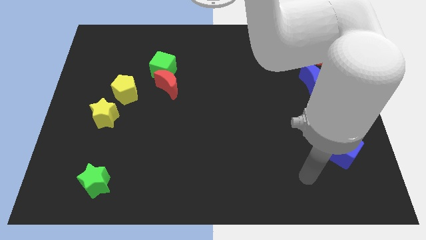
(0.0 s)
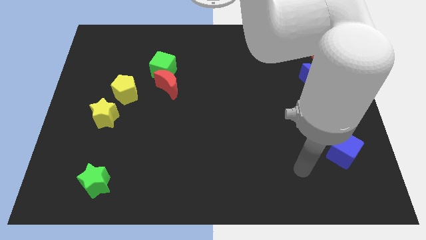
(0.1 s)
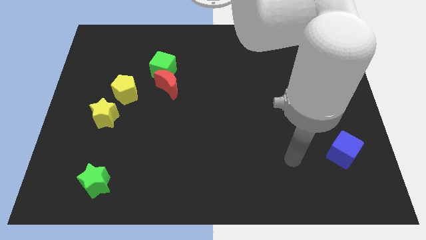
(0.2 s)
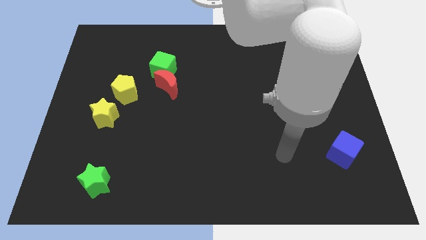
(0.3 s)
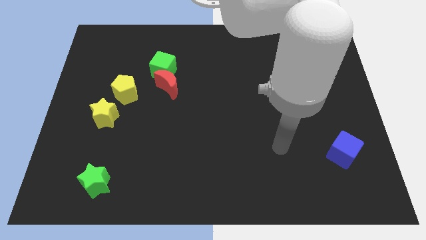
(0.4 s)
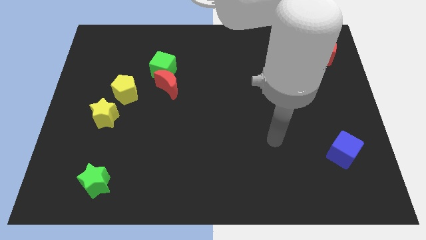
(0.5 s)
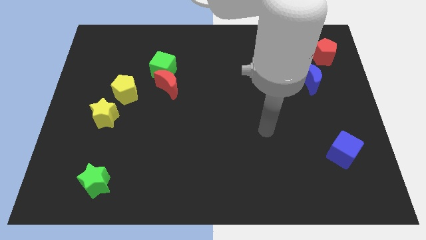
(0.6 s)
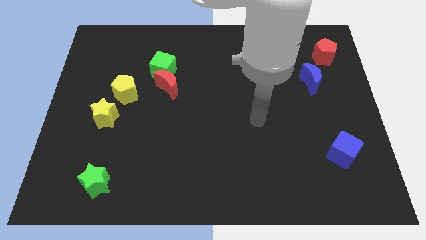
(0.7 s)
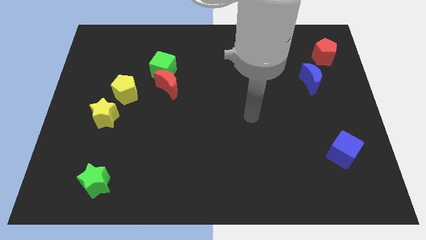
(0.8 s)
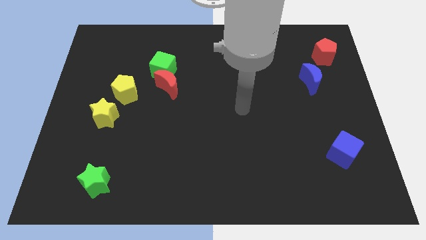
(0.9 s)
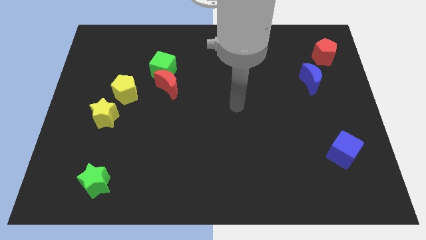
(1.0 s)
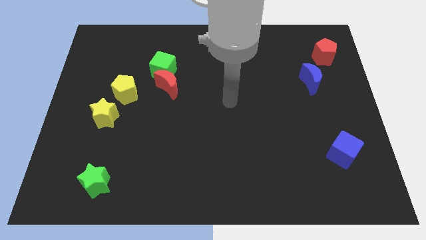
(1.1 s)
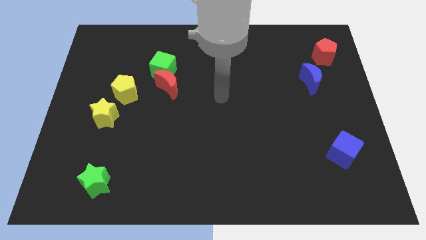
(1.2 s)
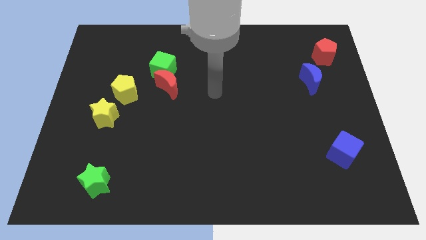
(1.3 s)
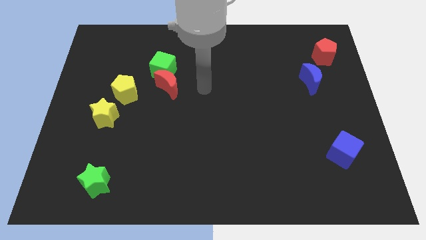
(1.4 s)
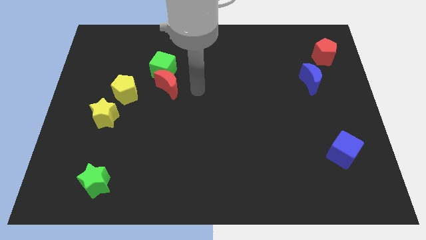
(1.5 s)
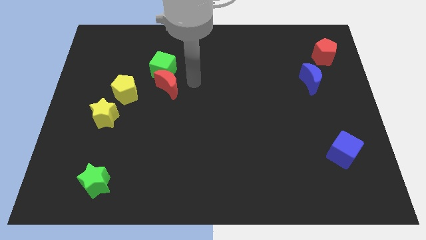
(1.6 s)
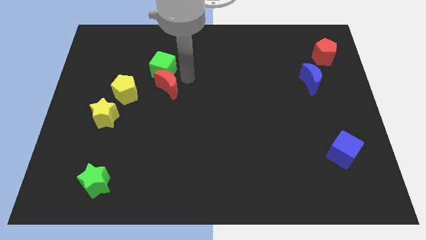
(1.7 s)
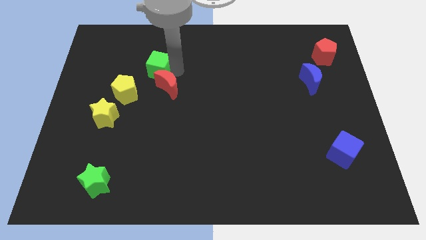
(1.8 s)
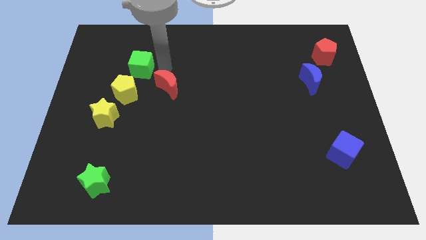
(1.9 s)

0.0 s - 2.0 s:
move the red moon away from the green cube

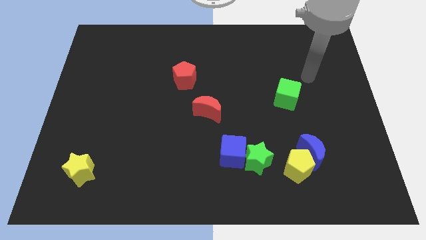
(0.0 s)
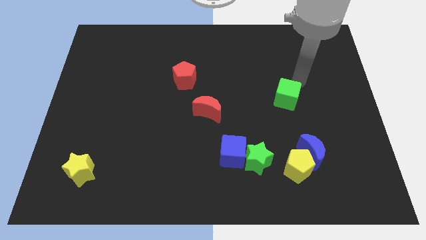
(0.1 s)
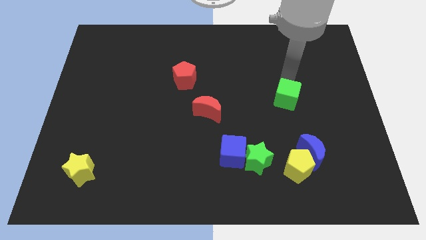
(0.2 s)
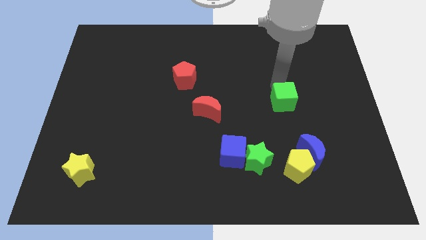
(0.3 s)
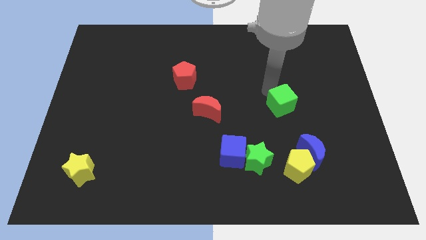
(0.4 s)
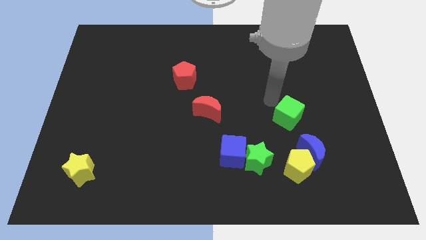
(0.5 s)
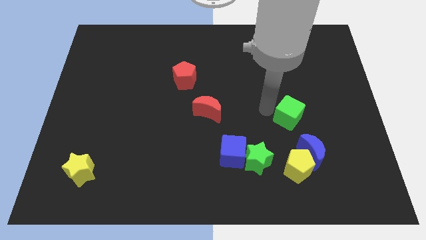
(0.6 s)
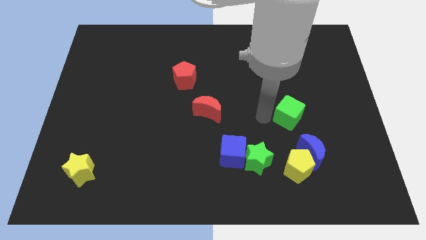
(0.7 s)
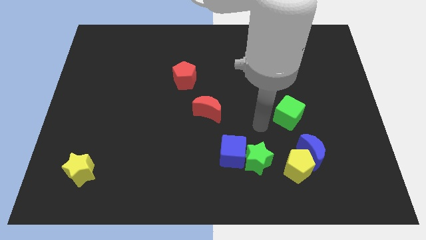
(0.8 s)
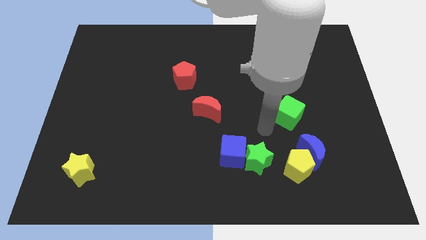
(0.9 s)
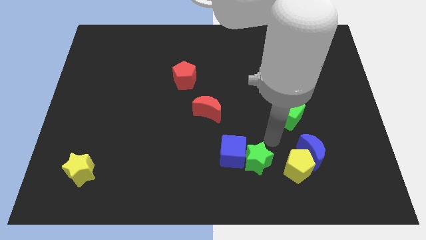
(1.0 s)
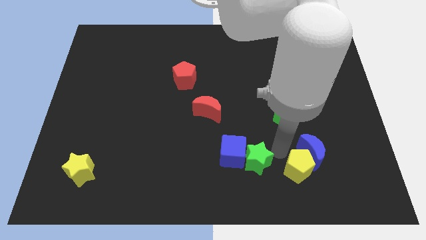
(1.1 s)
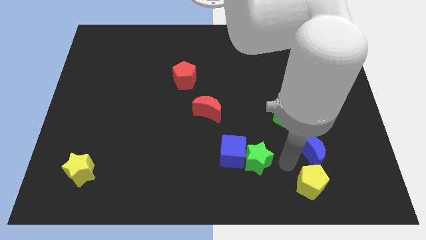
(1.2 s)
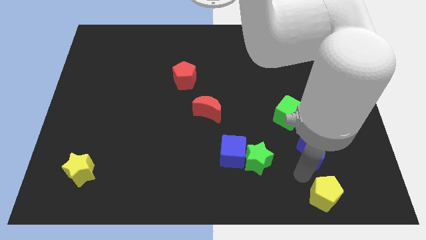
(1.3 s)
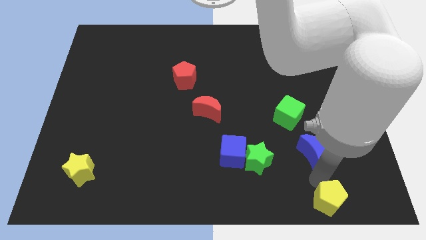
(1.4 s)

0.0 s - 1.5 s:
move the blue moon away from the yellow pentagon

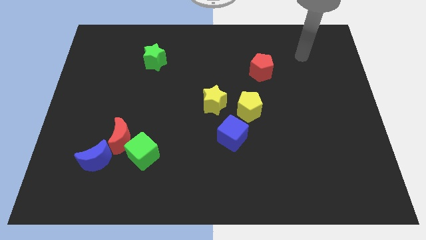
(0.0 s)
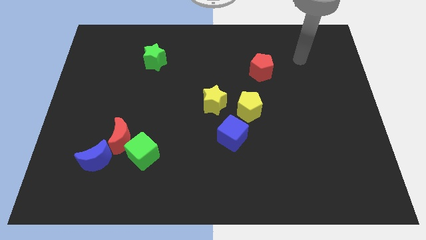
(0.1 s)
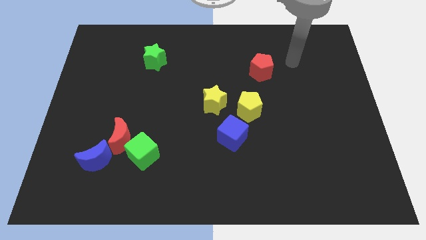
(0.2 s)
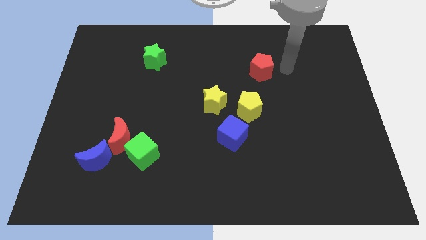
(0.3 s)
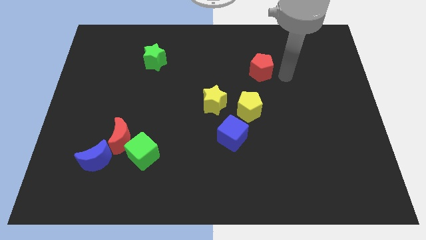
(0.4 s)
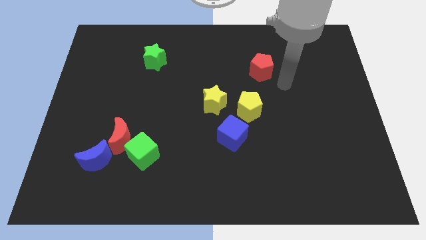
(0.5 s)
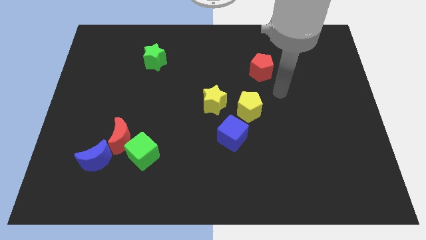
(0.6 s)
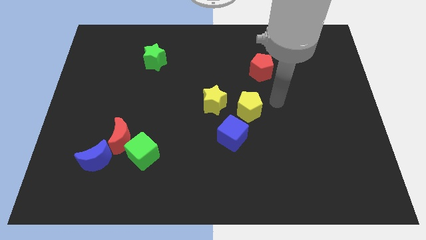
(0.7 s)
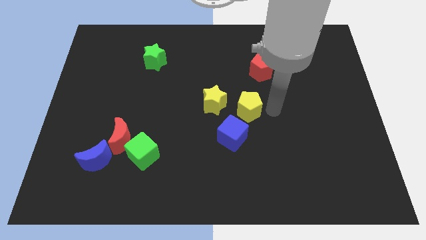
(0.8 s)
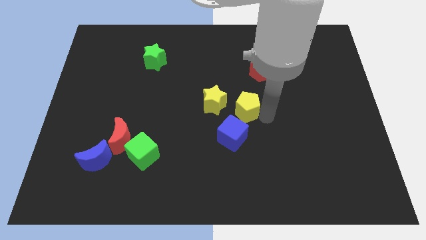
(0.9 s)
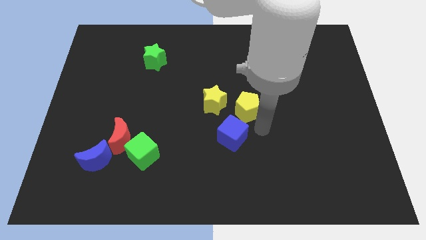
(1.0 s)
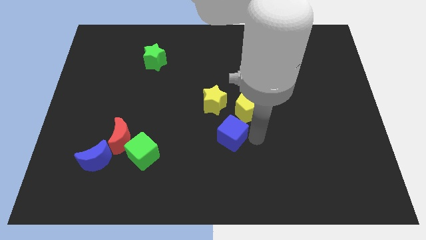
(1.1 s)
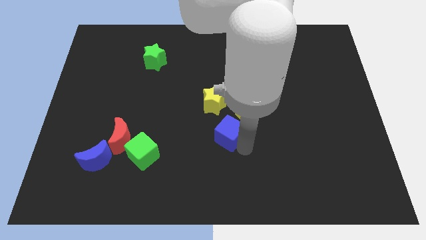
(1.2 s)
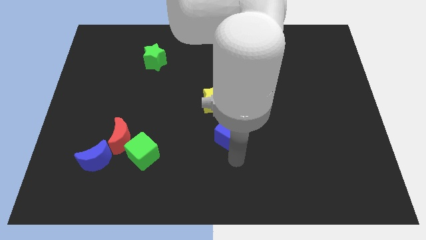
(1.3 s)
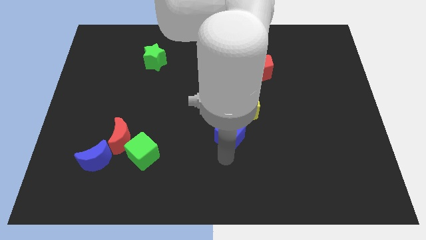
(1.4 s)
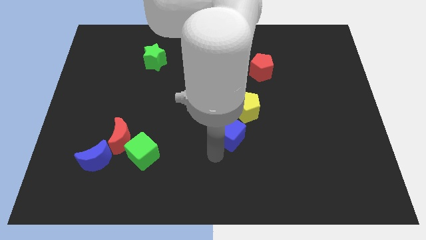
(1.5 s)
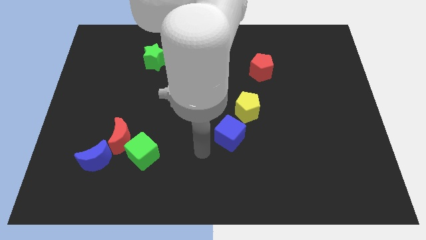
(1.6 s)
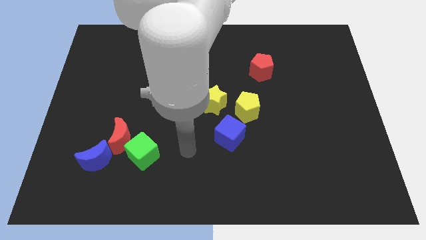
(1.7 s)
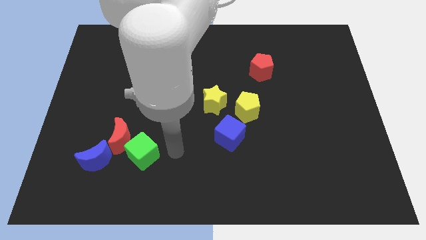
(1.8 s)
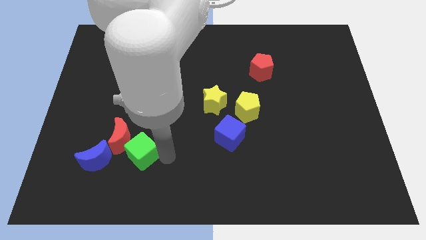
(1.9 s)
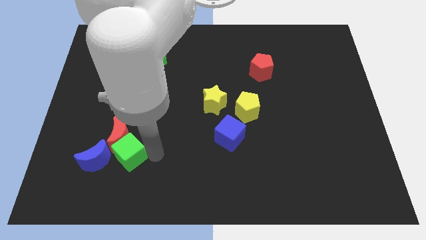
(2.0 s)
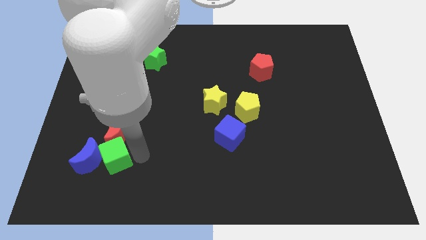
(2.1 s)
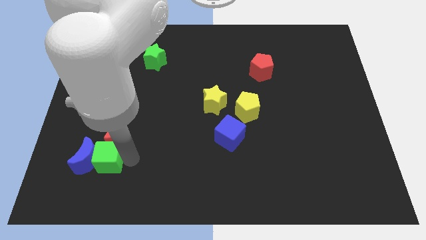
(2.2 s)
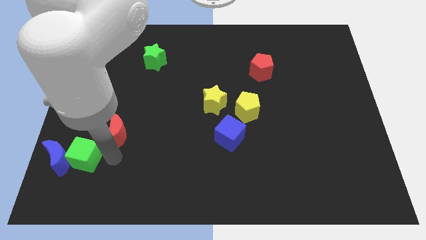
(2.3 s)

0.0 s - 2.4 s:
separate the red moon from the green cube and blue moon

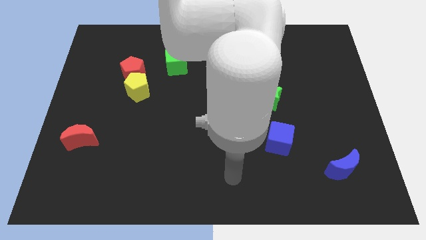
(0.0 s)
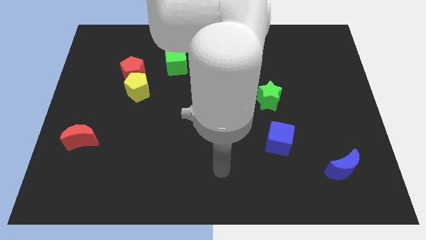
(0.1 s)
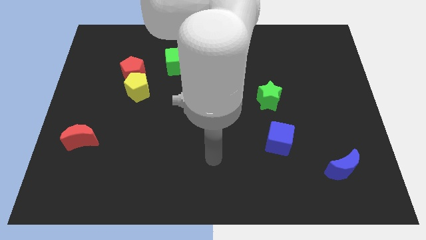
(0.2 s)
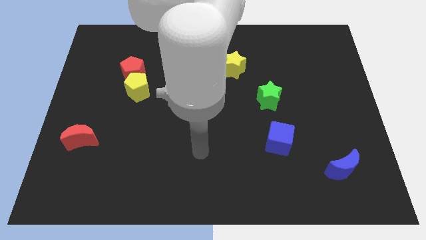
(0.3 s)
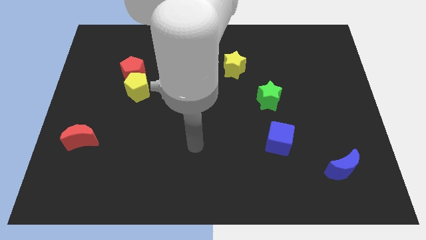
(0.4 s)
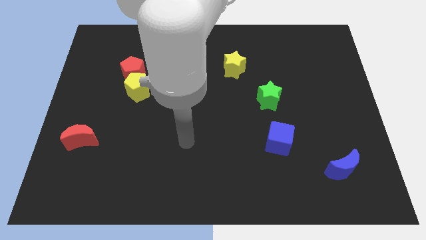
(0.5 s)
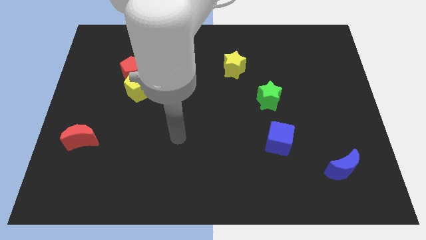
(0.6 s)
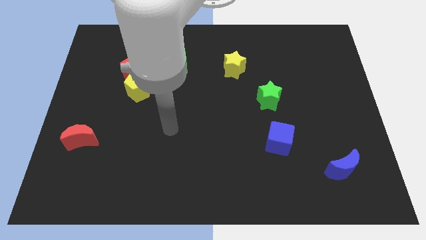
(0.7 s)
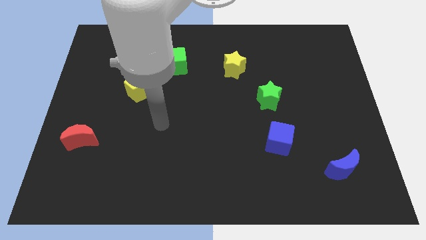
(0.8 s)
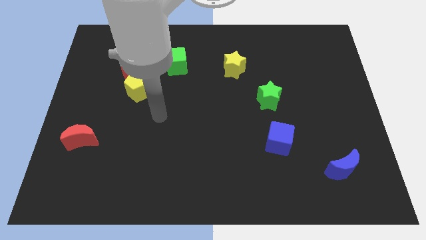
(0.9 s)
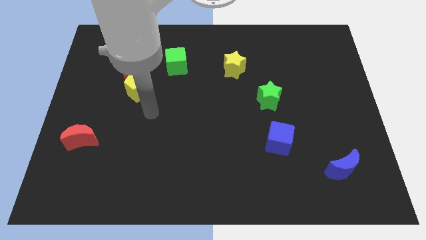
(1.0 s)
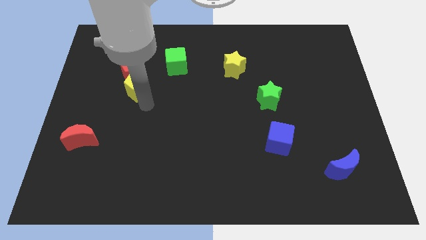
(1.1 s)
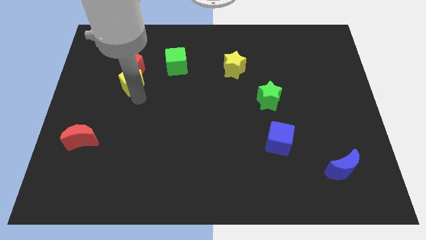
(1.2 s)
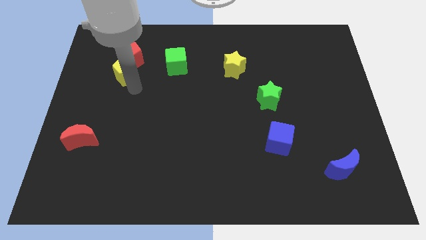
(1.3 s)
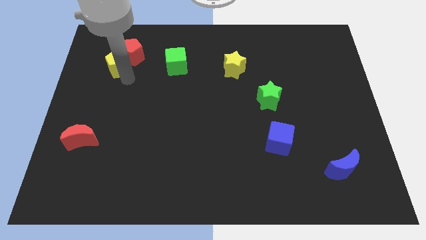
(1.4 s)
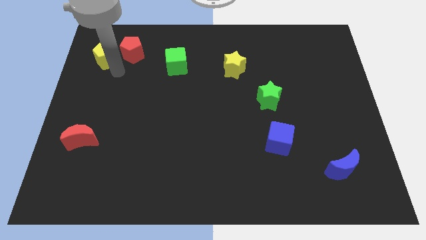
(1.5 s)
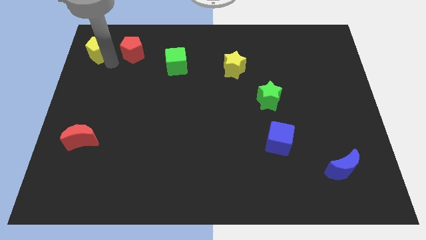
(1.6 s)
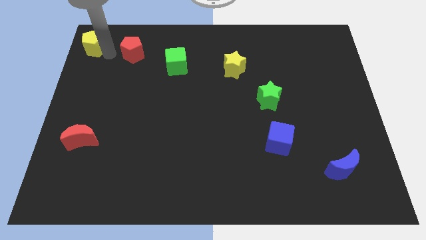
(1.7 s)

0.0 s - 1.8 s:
pull the red pentagon apart from the yellow pentagon

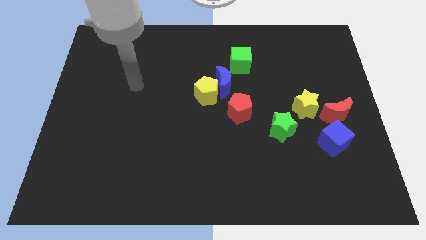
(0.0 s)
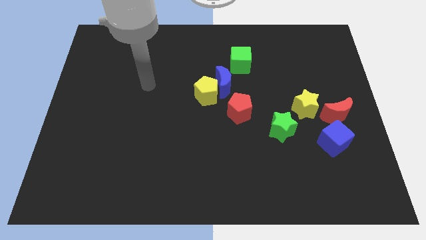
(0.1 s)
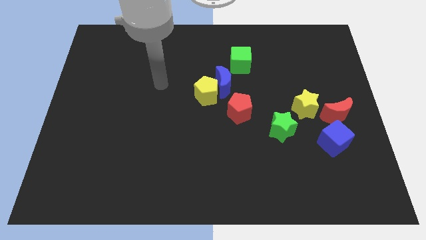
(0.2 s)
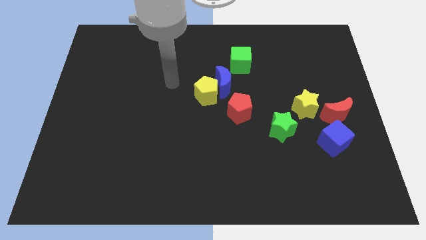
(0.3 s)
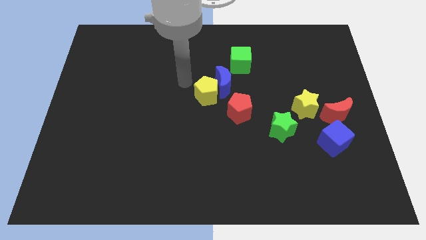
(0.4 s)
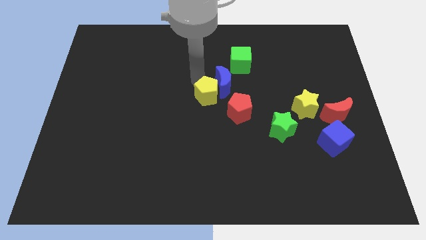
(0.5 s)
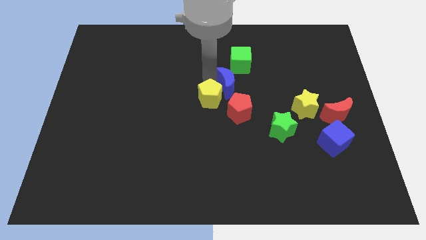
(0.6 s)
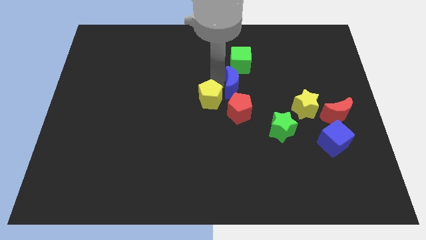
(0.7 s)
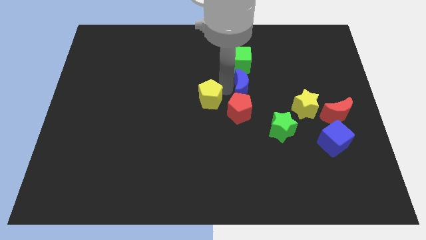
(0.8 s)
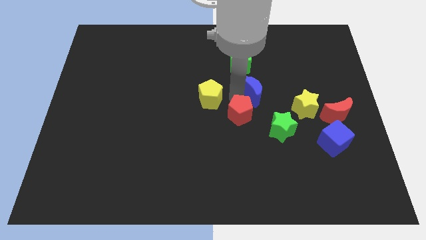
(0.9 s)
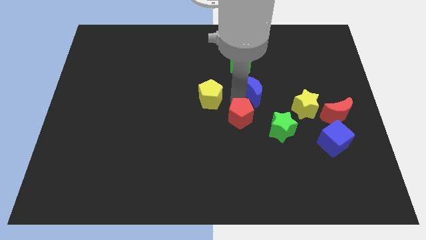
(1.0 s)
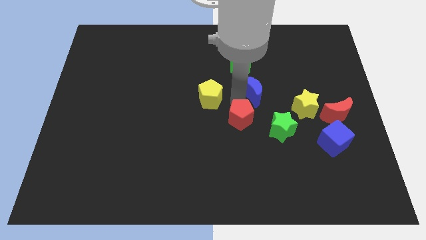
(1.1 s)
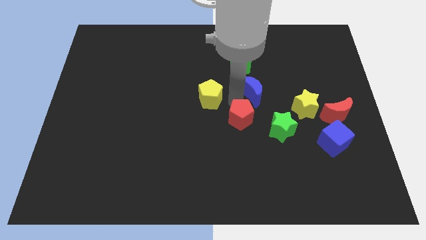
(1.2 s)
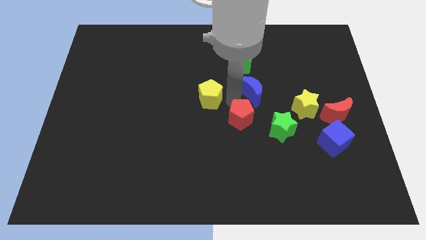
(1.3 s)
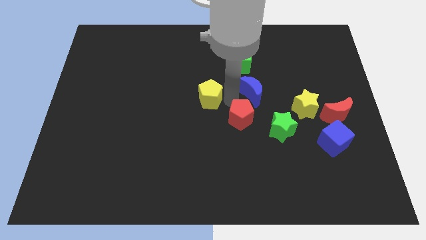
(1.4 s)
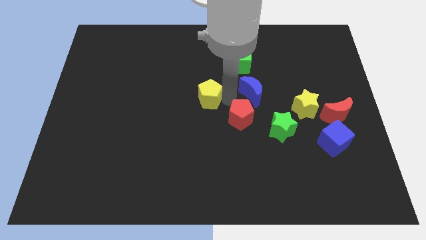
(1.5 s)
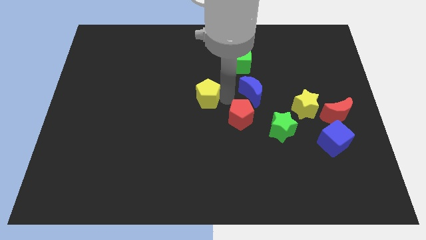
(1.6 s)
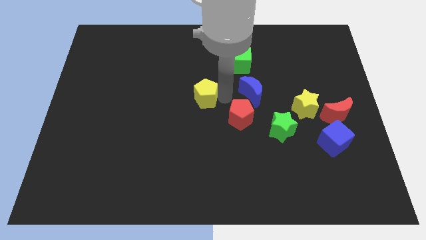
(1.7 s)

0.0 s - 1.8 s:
pull the yellow pentagon apart from the blue moon and red pentagon
